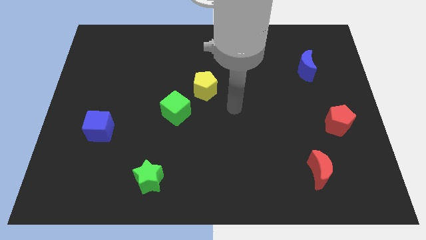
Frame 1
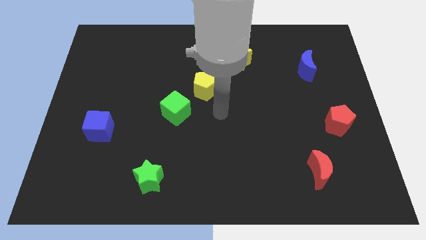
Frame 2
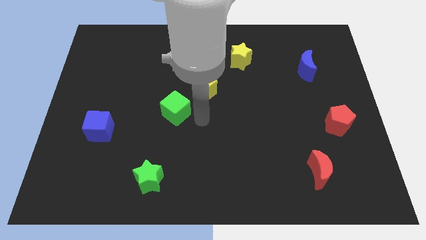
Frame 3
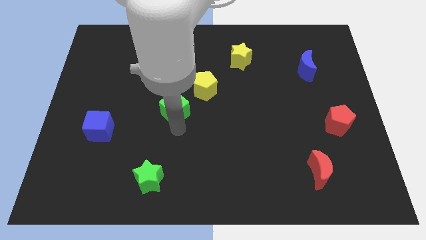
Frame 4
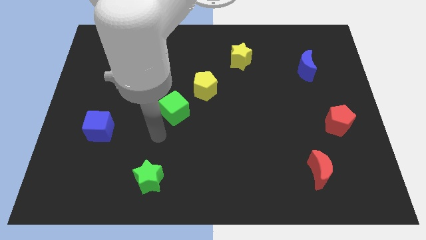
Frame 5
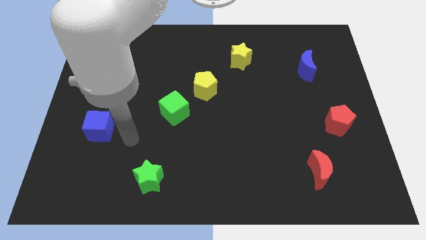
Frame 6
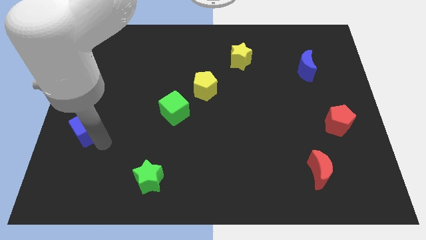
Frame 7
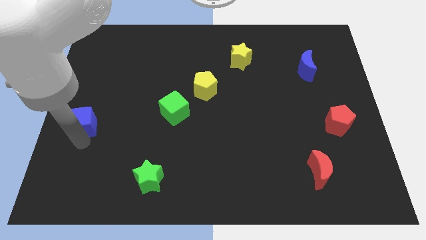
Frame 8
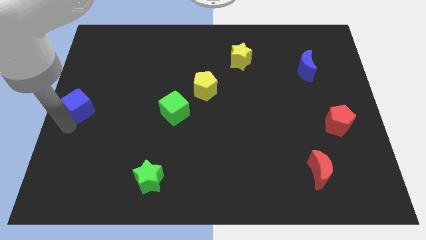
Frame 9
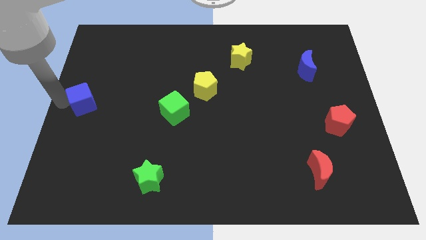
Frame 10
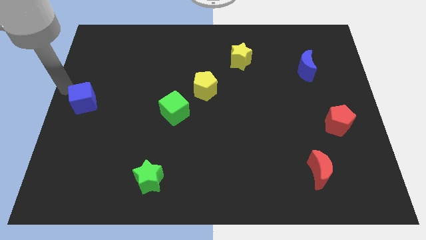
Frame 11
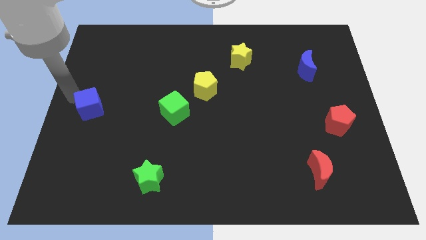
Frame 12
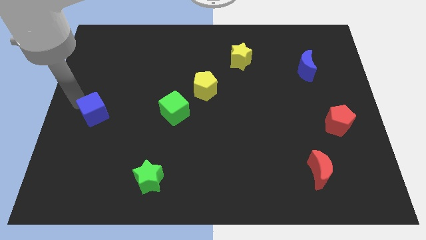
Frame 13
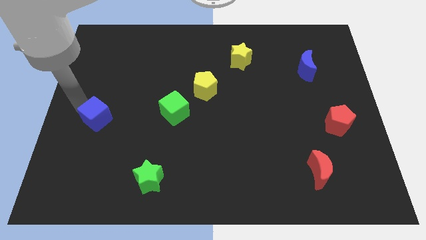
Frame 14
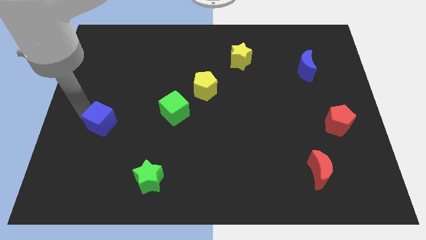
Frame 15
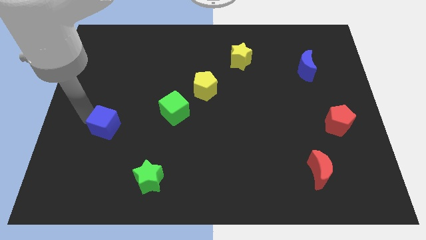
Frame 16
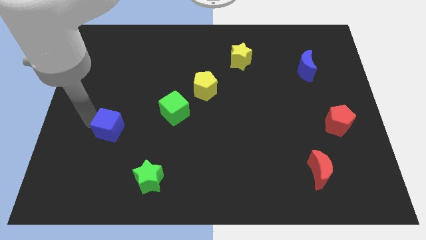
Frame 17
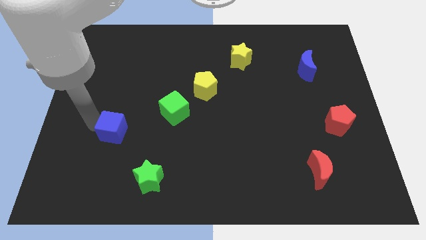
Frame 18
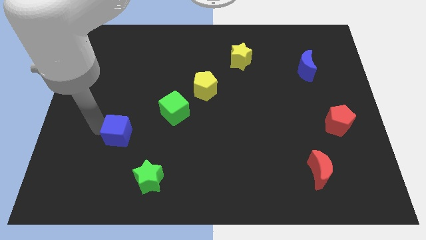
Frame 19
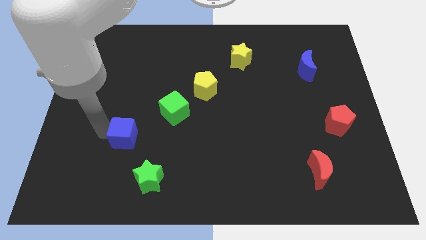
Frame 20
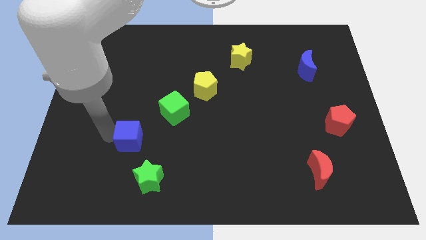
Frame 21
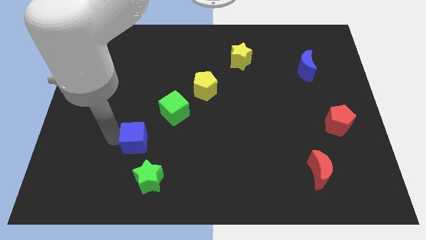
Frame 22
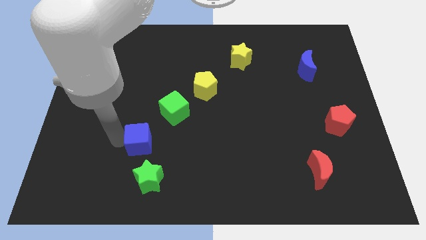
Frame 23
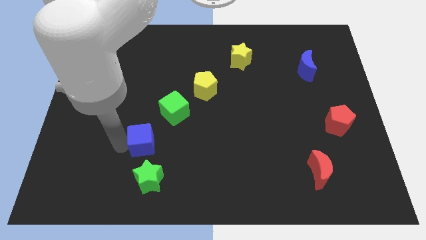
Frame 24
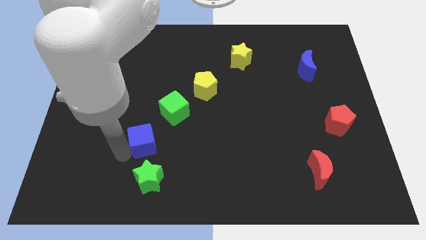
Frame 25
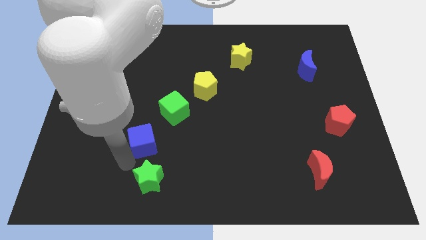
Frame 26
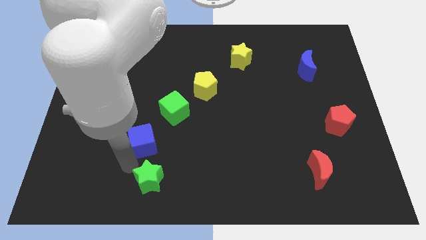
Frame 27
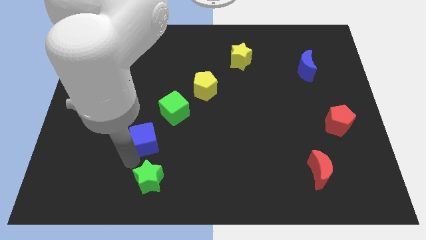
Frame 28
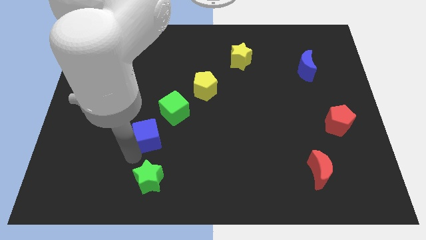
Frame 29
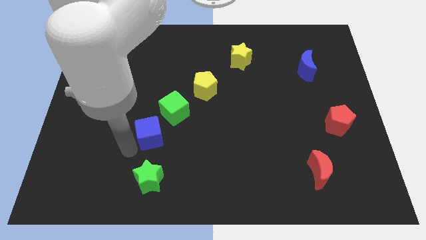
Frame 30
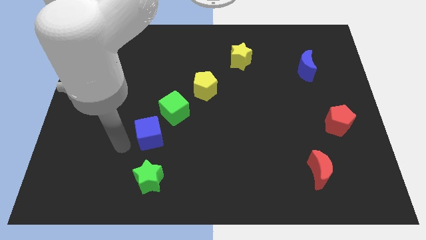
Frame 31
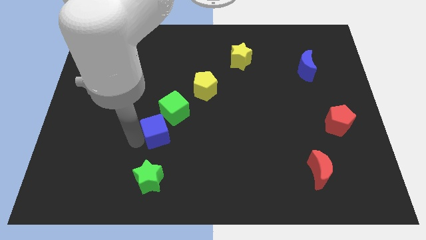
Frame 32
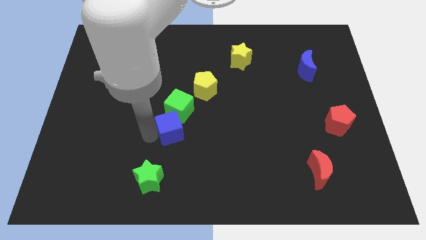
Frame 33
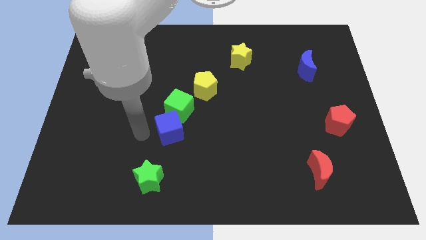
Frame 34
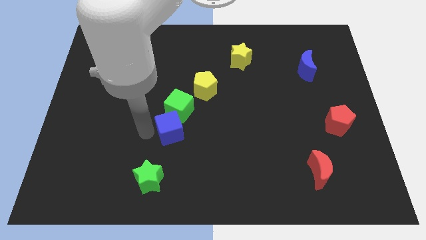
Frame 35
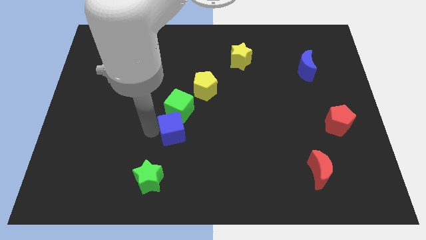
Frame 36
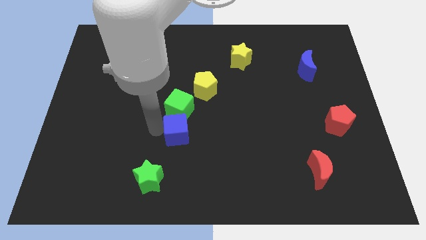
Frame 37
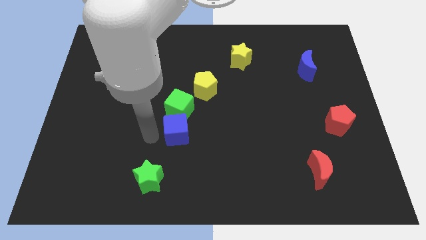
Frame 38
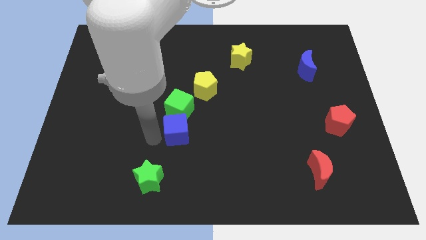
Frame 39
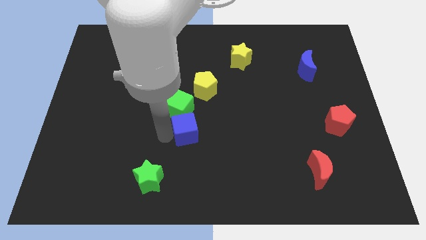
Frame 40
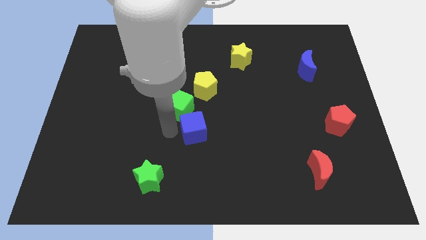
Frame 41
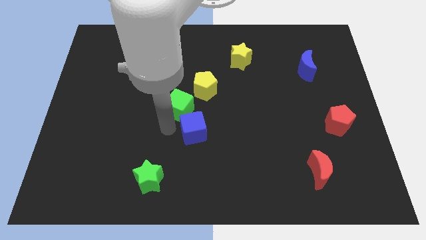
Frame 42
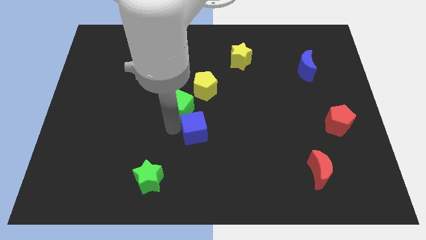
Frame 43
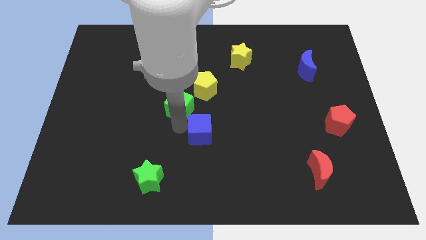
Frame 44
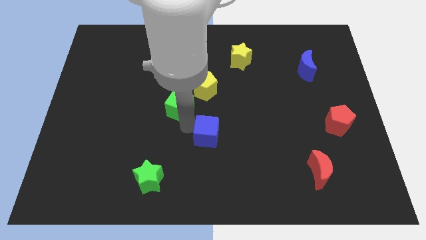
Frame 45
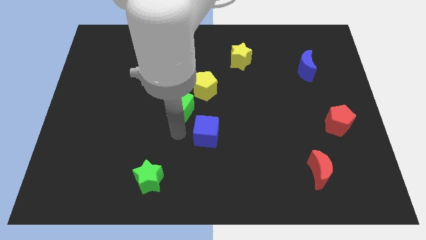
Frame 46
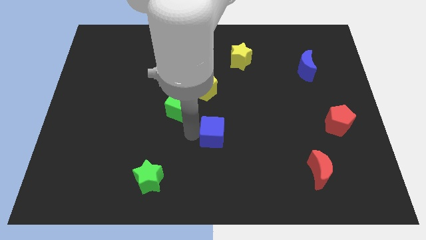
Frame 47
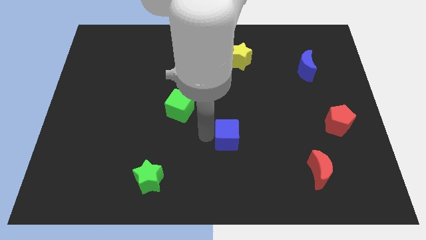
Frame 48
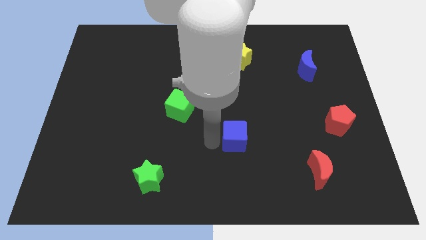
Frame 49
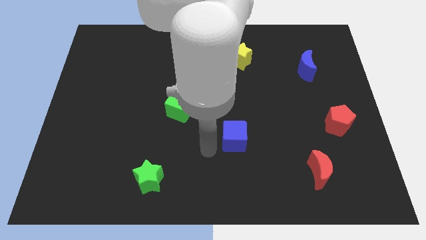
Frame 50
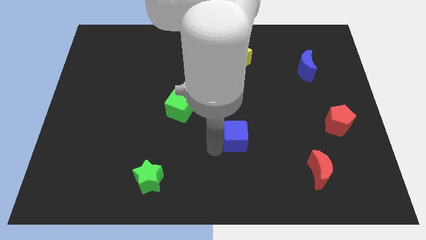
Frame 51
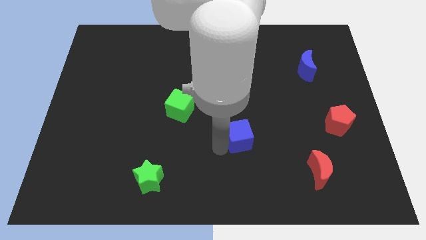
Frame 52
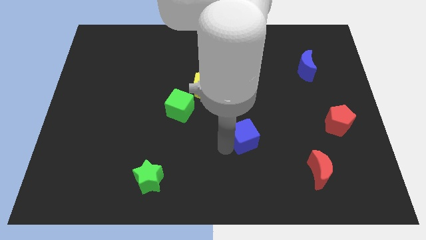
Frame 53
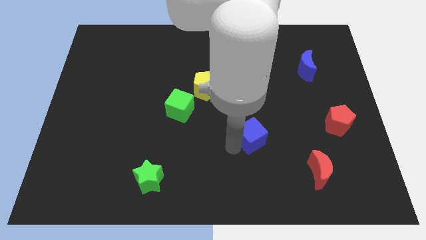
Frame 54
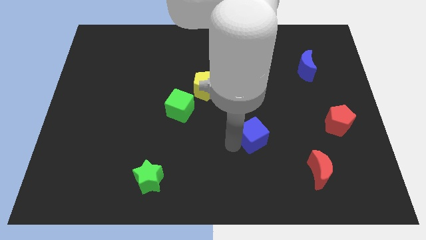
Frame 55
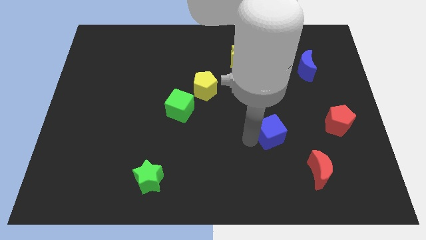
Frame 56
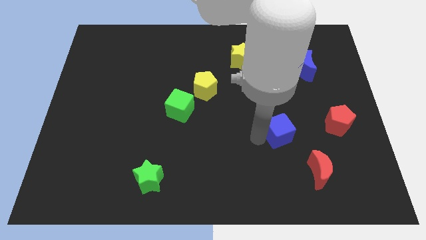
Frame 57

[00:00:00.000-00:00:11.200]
put the blue cube left of the red pentagon

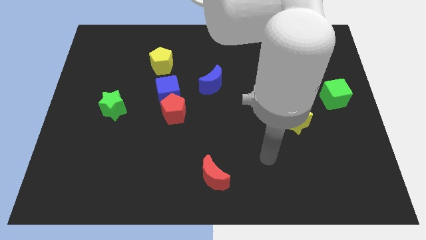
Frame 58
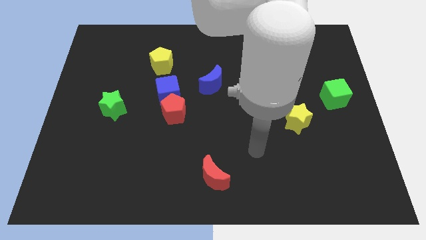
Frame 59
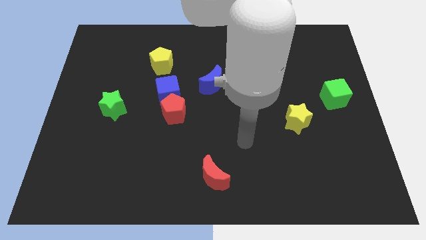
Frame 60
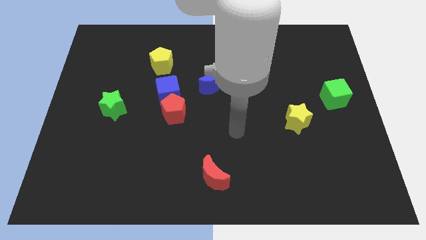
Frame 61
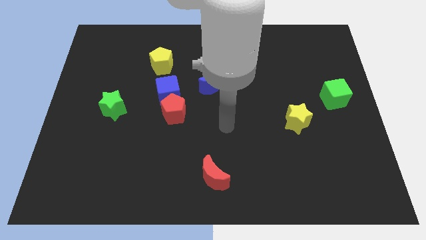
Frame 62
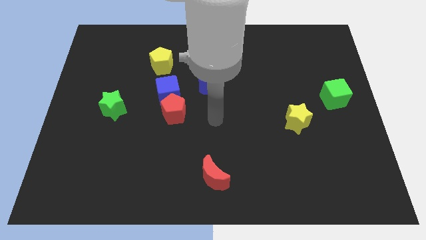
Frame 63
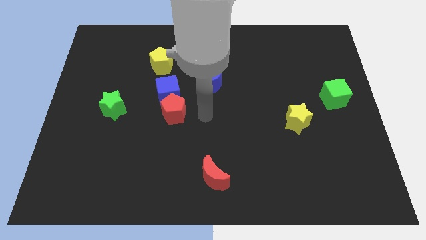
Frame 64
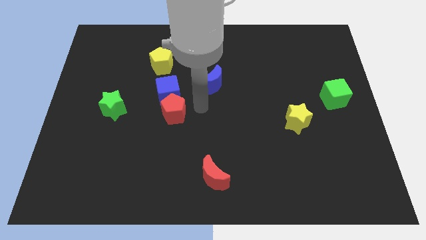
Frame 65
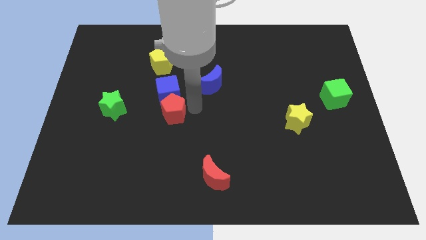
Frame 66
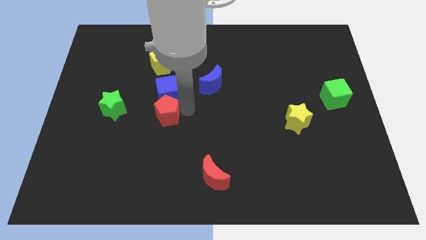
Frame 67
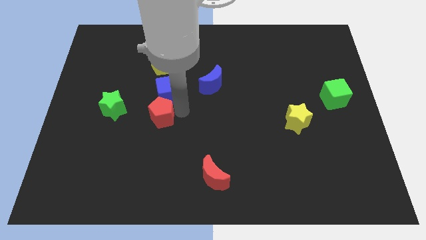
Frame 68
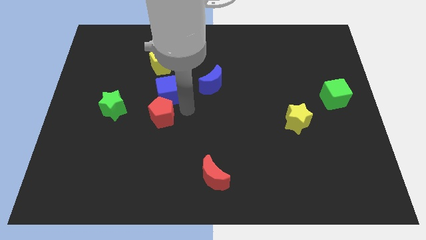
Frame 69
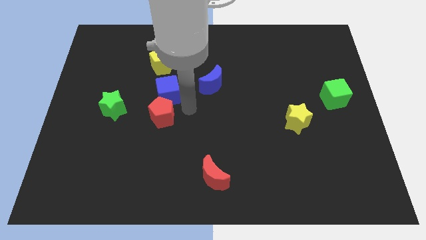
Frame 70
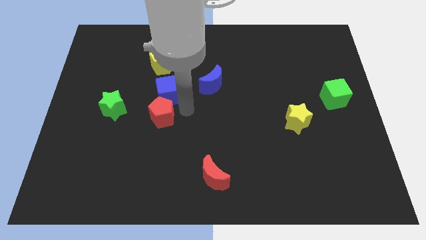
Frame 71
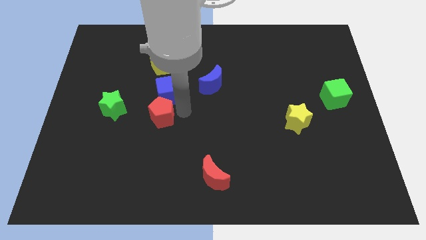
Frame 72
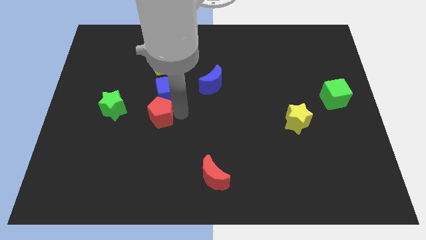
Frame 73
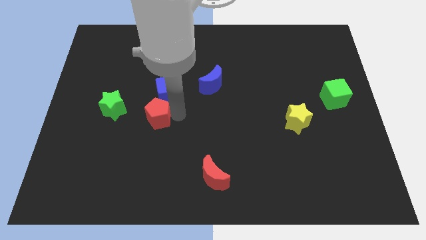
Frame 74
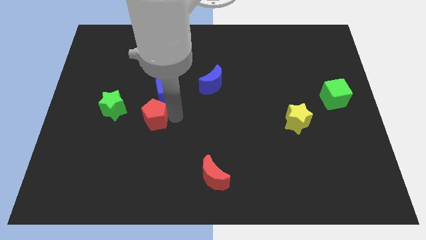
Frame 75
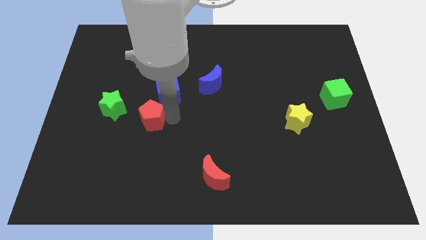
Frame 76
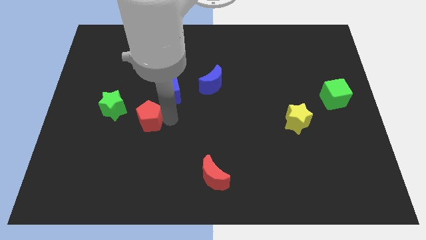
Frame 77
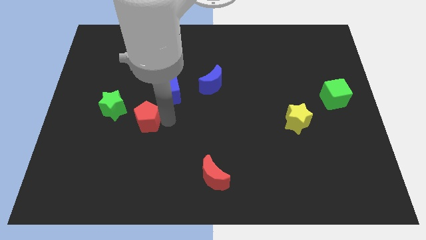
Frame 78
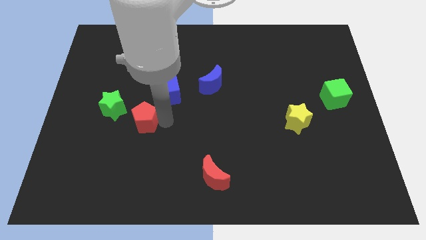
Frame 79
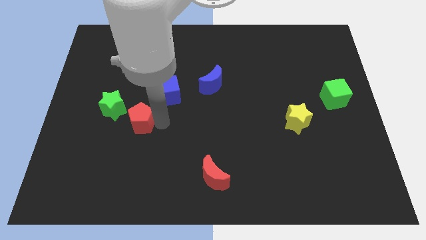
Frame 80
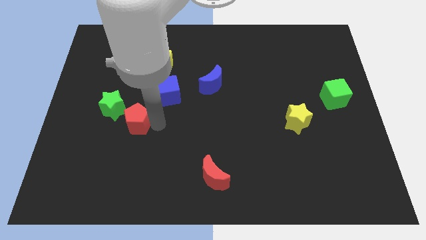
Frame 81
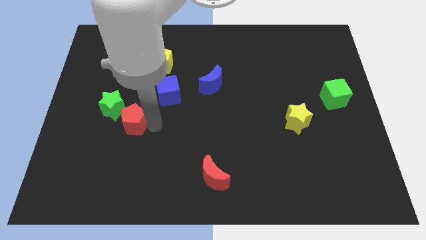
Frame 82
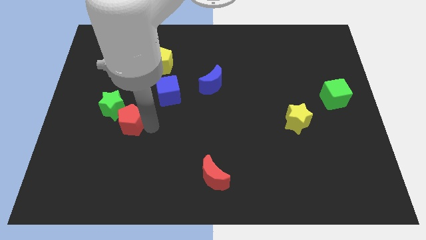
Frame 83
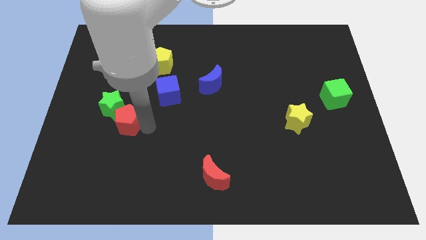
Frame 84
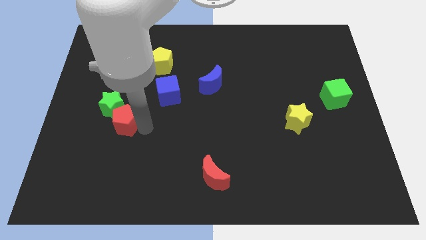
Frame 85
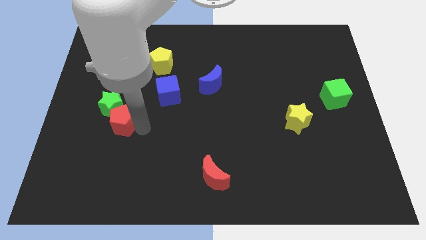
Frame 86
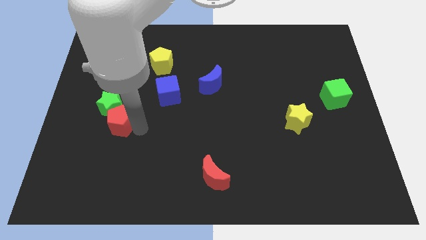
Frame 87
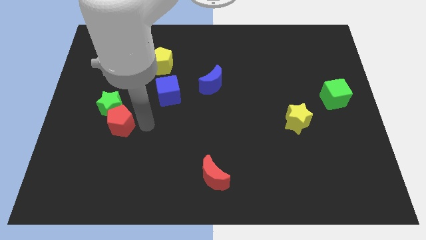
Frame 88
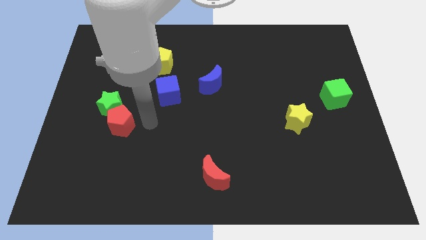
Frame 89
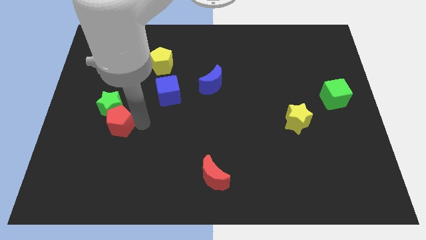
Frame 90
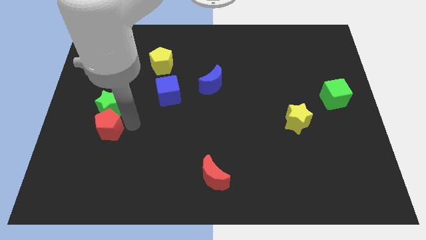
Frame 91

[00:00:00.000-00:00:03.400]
move the red pentagon diagonally down and to the left of the green star
